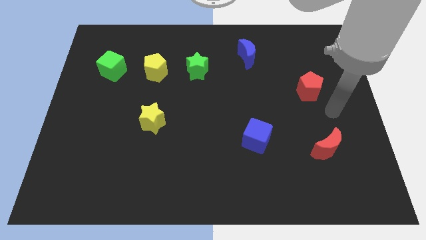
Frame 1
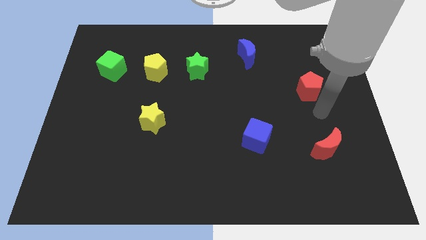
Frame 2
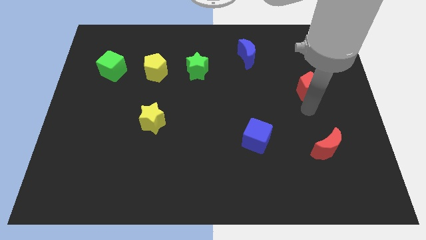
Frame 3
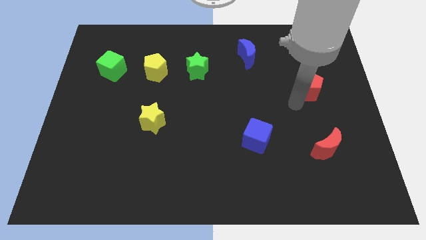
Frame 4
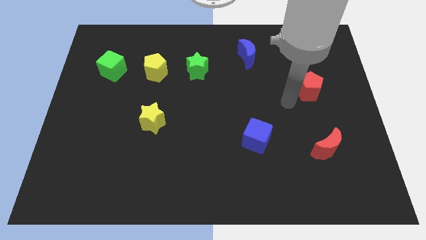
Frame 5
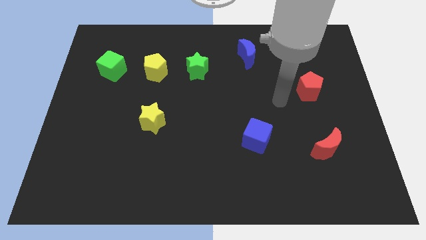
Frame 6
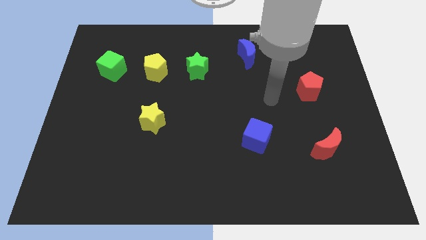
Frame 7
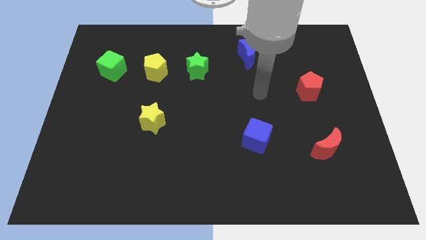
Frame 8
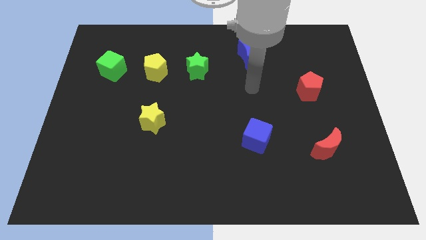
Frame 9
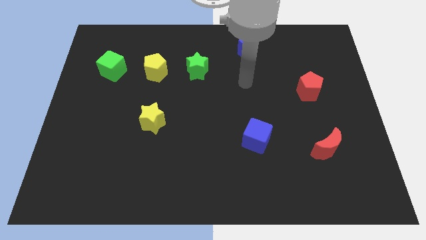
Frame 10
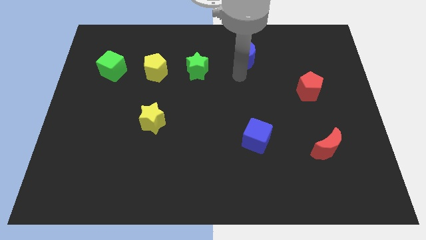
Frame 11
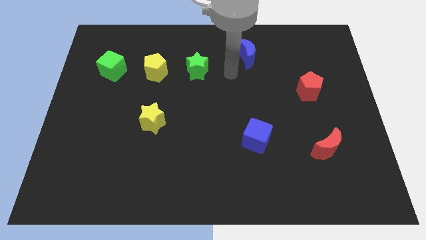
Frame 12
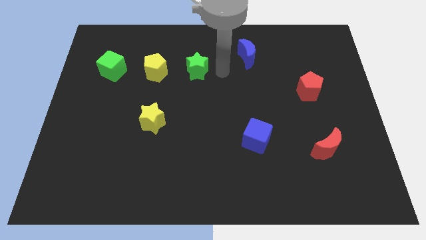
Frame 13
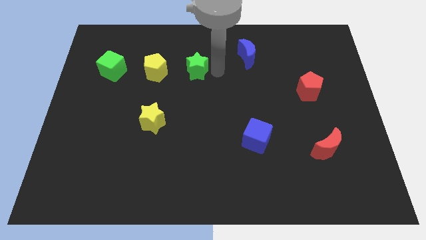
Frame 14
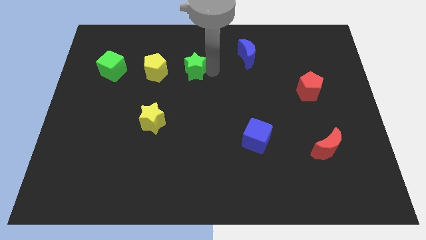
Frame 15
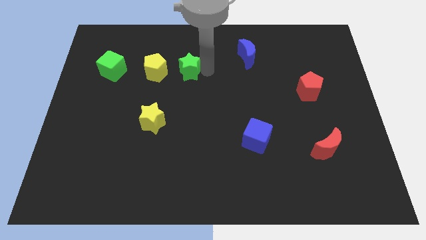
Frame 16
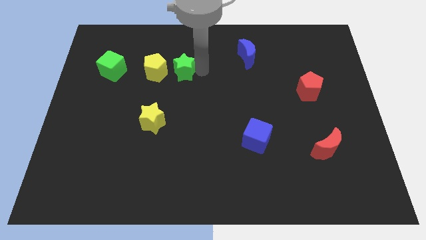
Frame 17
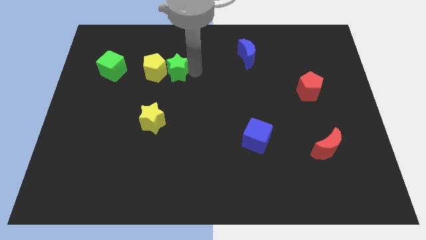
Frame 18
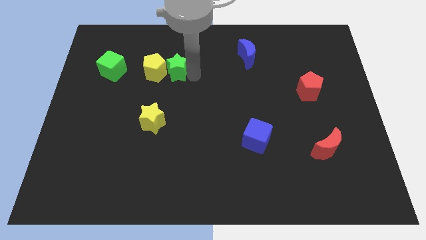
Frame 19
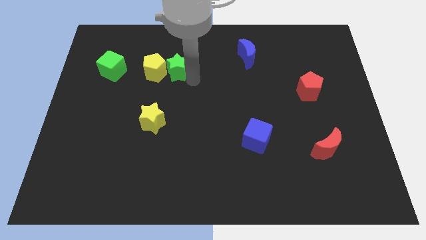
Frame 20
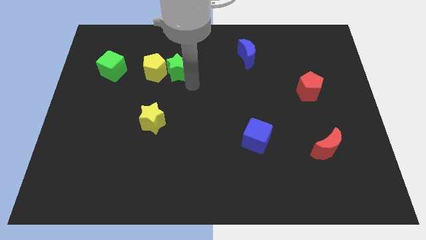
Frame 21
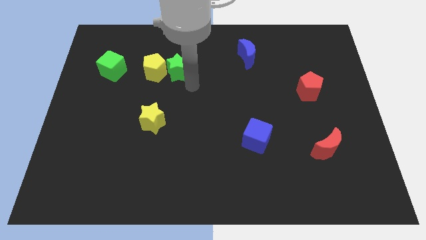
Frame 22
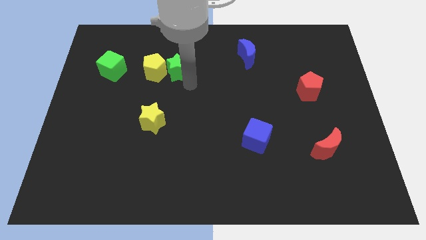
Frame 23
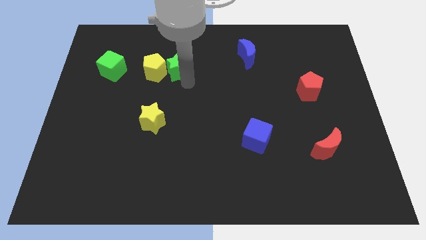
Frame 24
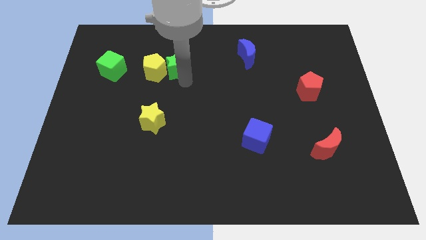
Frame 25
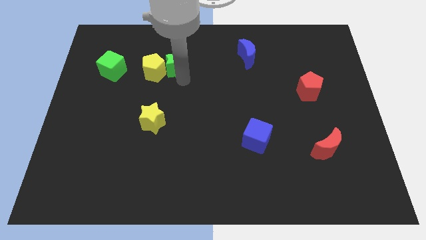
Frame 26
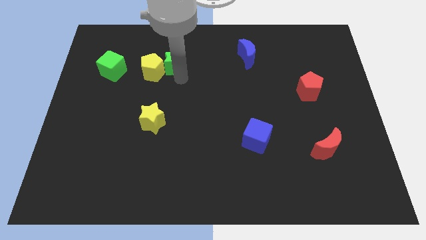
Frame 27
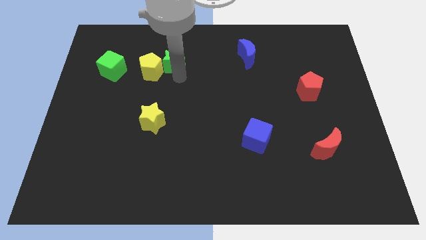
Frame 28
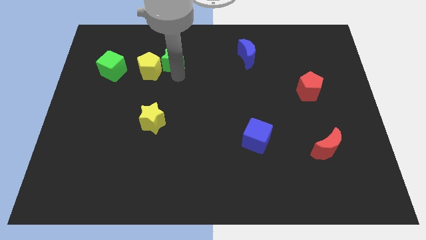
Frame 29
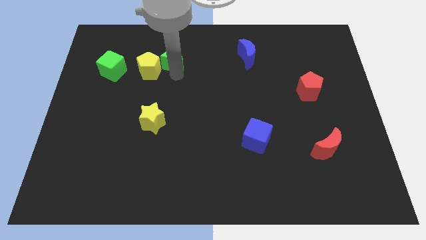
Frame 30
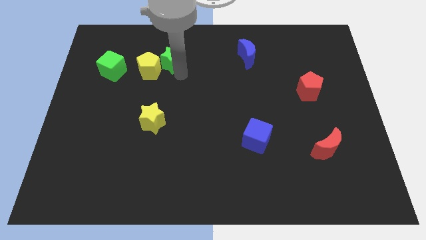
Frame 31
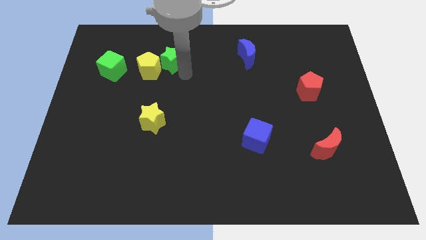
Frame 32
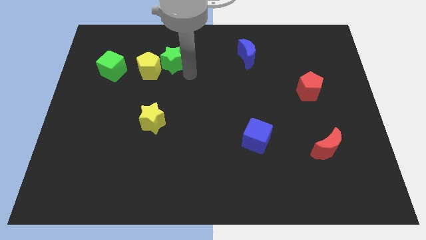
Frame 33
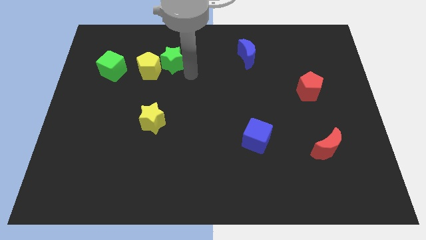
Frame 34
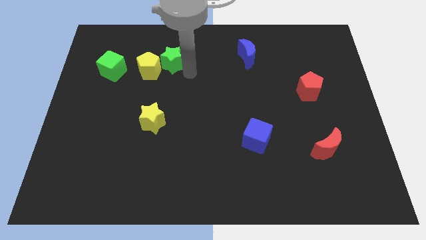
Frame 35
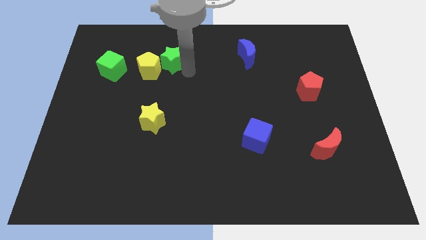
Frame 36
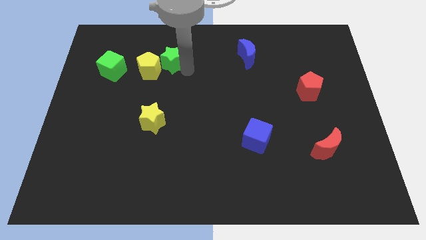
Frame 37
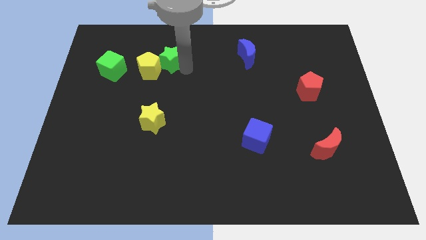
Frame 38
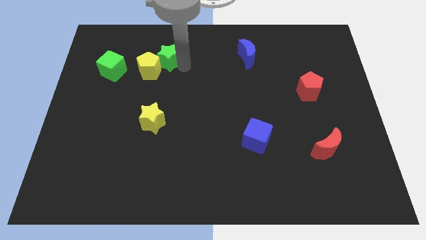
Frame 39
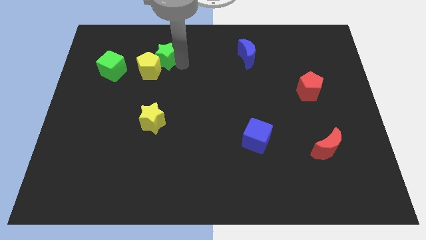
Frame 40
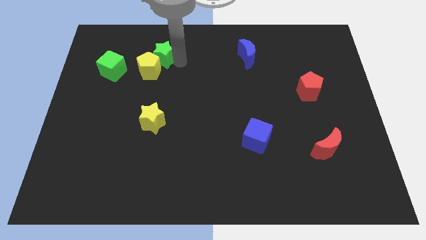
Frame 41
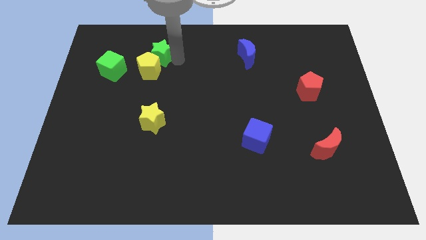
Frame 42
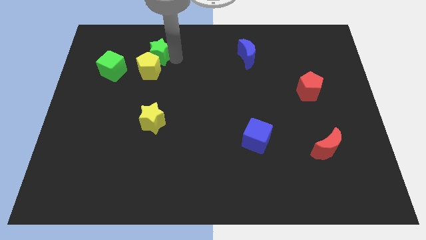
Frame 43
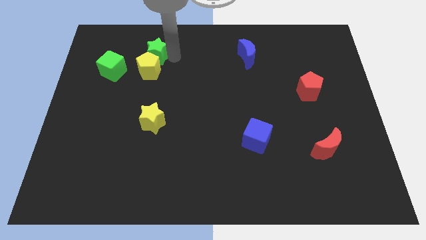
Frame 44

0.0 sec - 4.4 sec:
put the green star to the top left side of the yellow pentagon

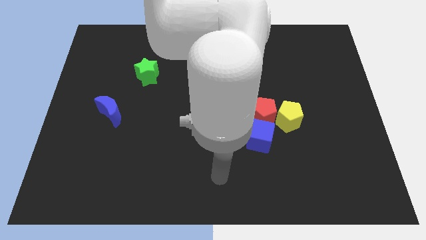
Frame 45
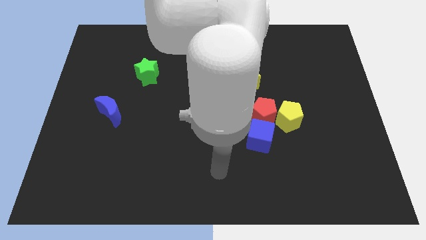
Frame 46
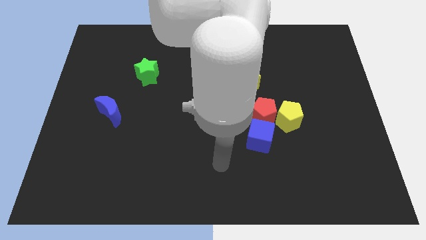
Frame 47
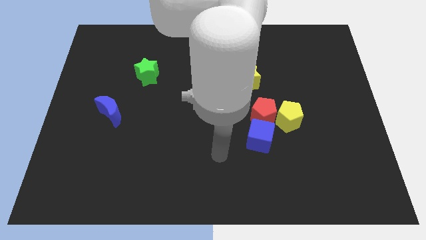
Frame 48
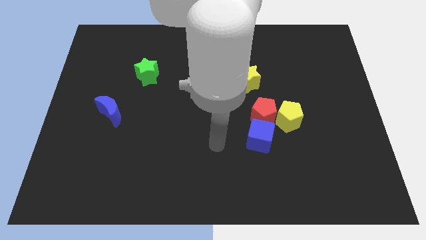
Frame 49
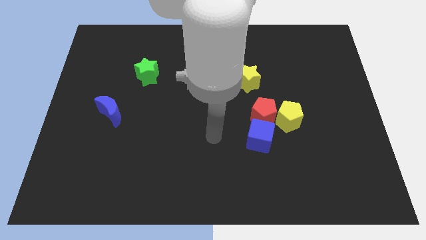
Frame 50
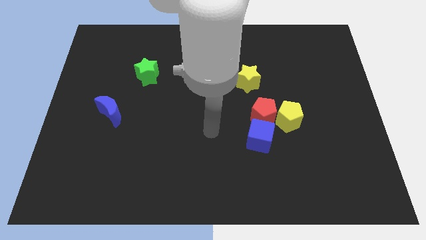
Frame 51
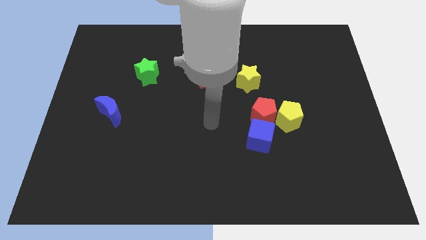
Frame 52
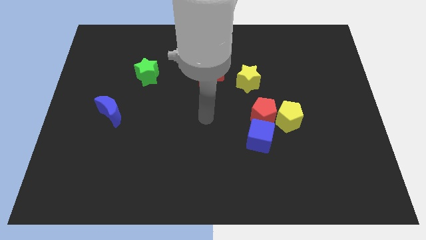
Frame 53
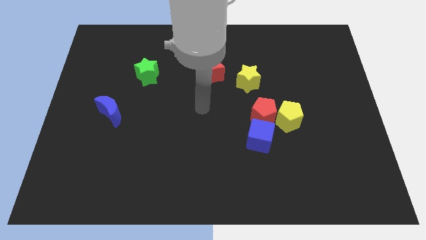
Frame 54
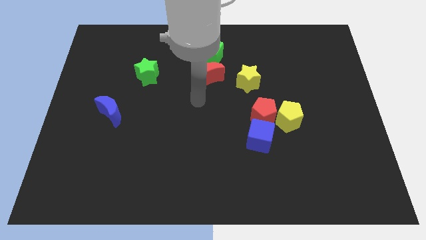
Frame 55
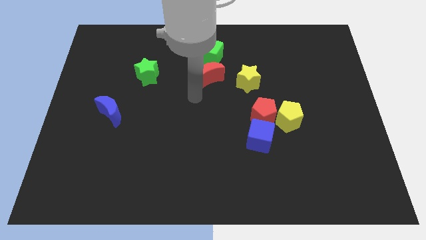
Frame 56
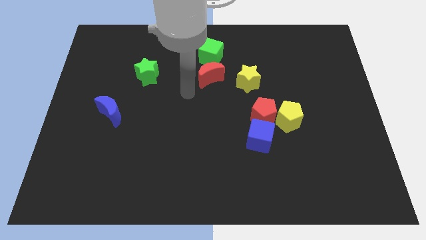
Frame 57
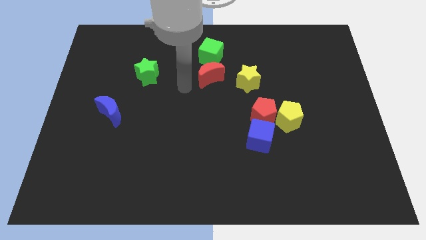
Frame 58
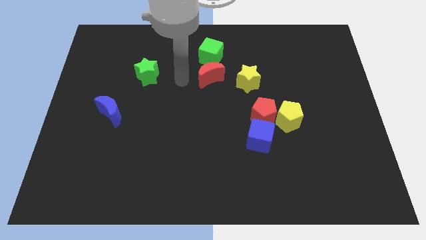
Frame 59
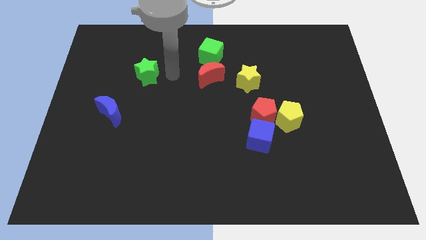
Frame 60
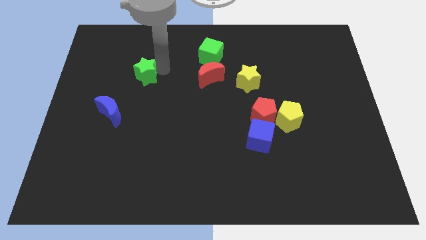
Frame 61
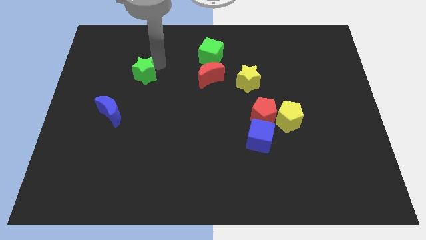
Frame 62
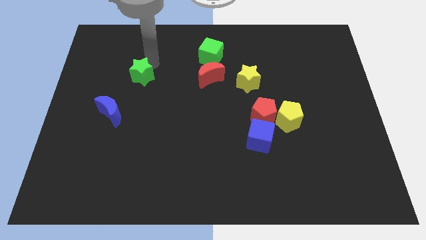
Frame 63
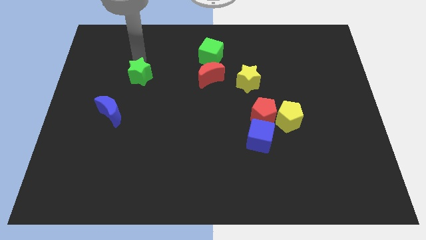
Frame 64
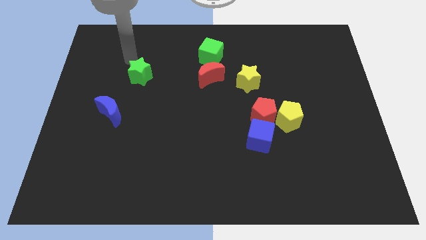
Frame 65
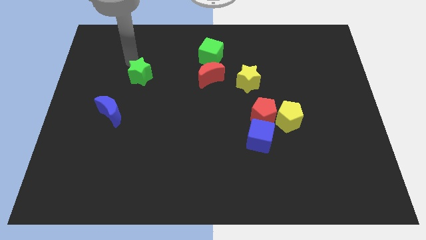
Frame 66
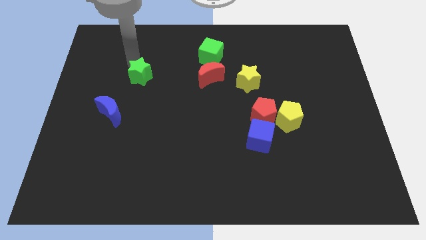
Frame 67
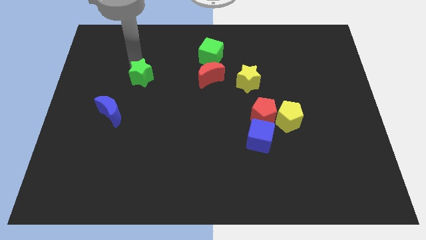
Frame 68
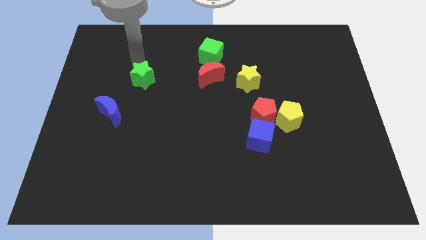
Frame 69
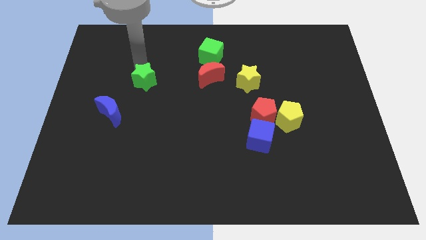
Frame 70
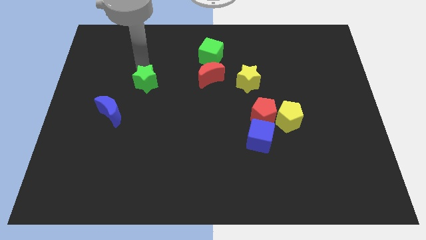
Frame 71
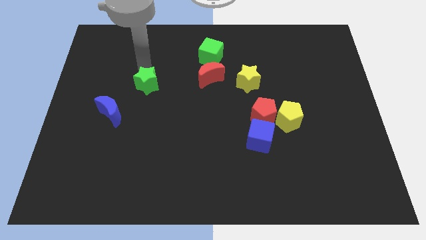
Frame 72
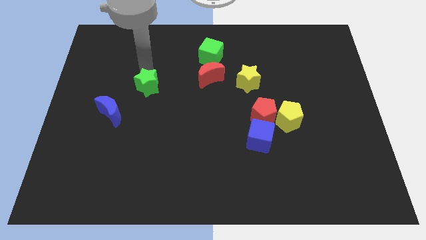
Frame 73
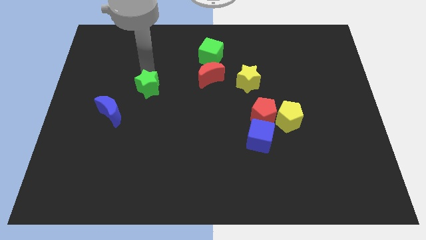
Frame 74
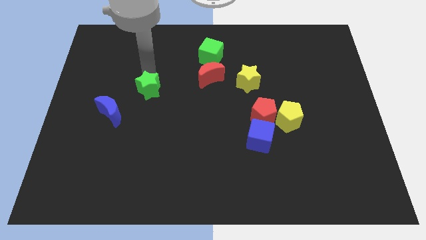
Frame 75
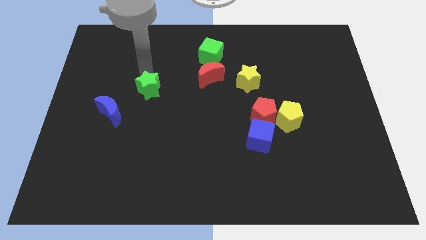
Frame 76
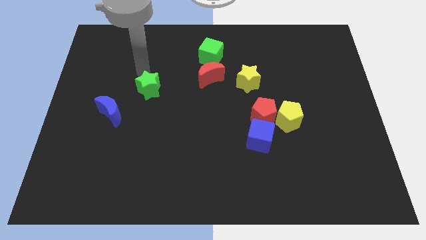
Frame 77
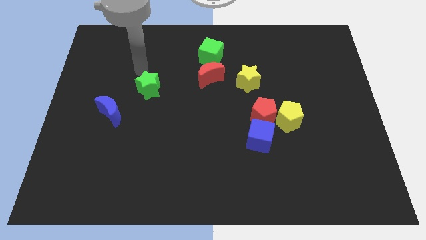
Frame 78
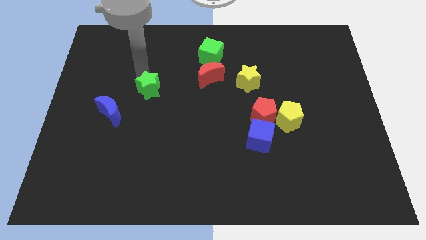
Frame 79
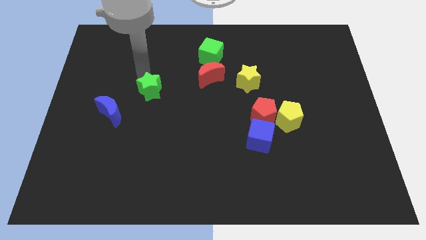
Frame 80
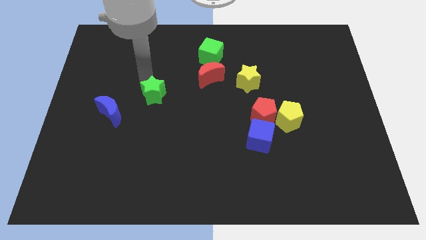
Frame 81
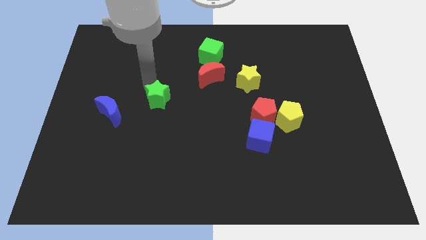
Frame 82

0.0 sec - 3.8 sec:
move the green star right of the blue moon
